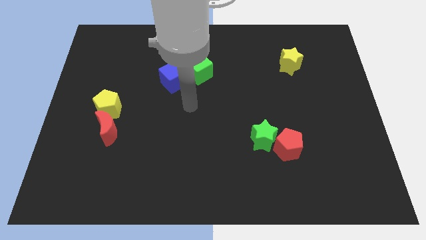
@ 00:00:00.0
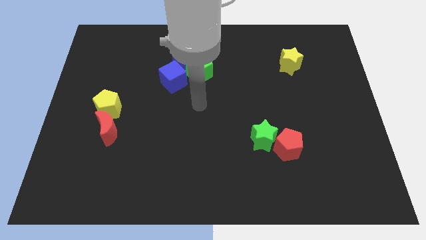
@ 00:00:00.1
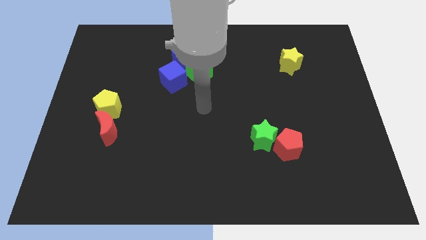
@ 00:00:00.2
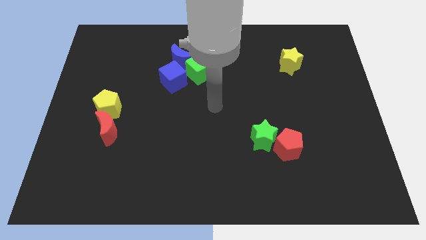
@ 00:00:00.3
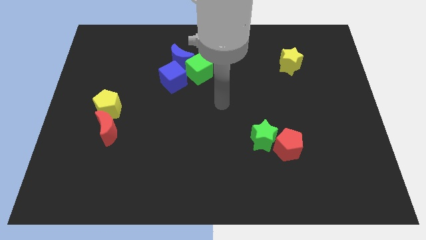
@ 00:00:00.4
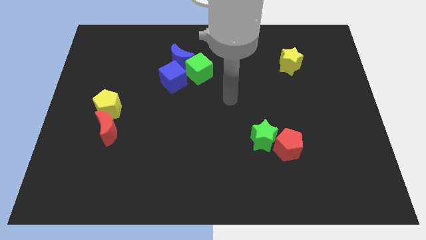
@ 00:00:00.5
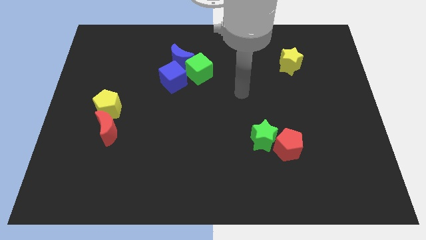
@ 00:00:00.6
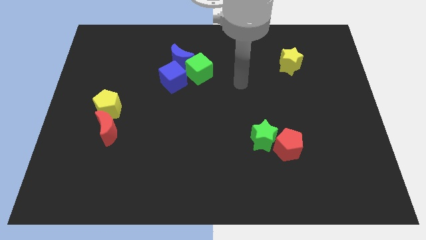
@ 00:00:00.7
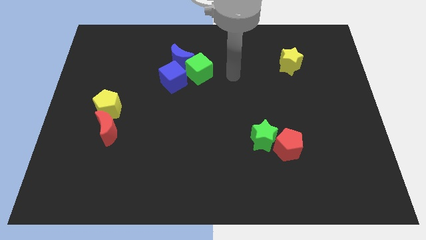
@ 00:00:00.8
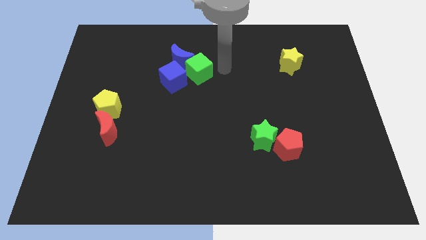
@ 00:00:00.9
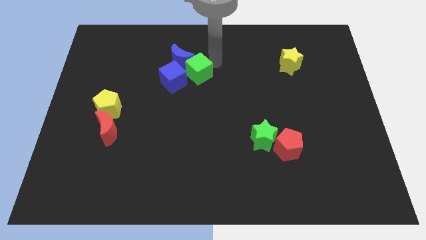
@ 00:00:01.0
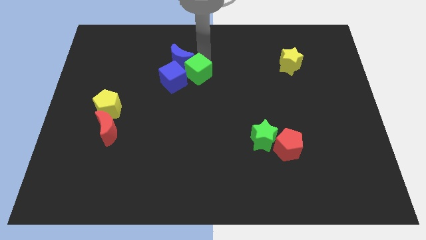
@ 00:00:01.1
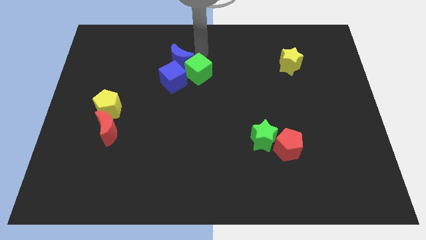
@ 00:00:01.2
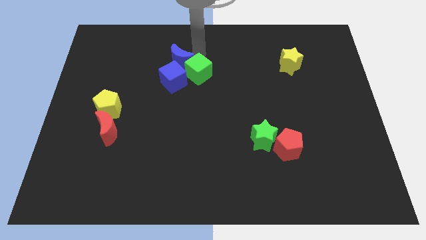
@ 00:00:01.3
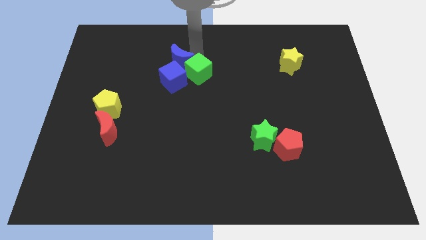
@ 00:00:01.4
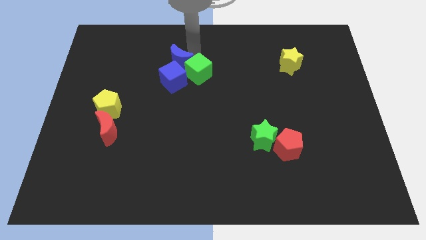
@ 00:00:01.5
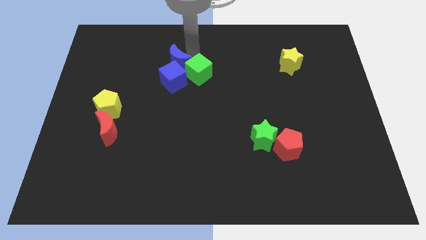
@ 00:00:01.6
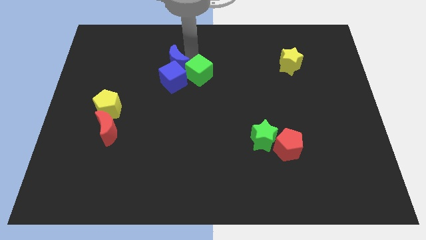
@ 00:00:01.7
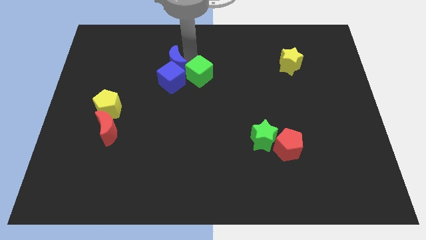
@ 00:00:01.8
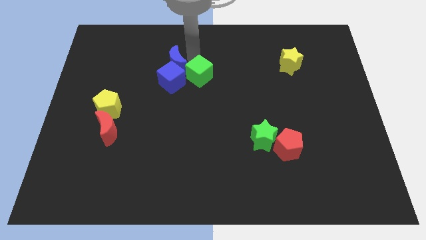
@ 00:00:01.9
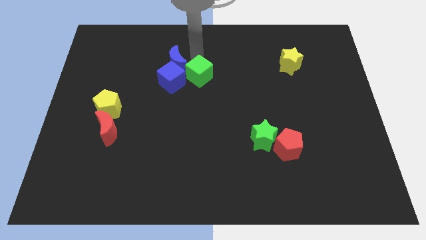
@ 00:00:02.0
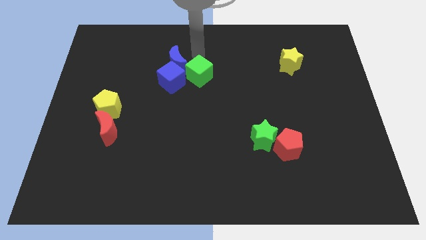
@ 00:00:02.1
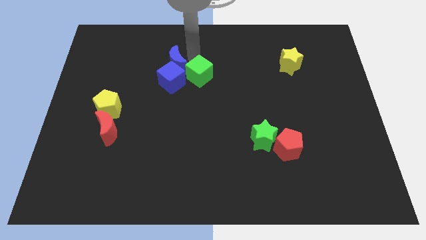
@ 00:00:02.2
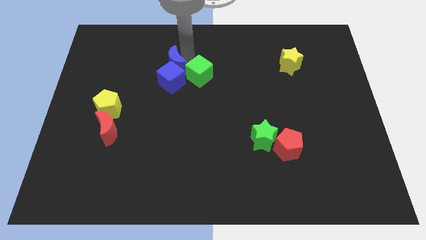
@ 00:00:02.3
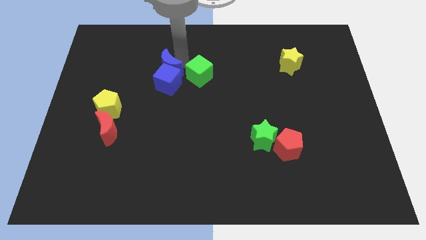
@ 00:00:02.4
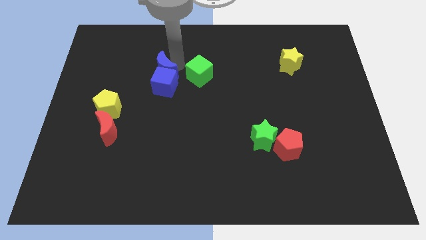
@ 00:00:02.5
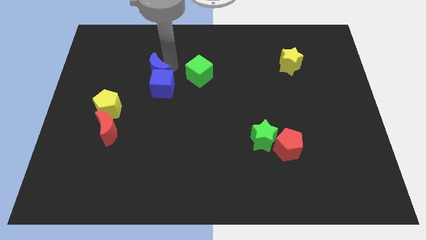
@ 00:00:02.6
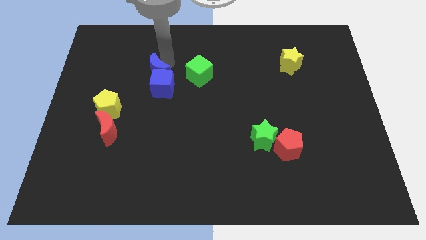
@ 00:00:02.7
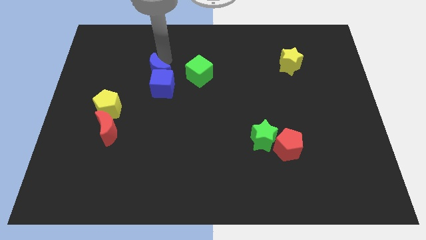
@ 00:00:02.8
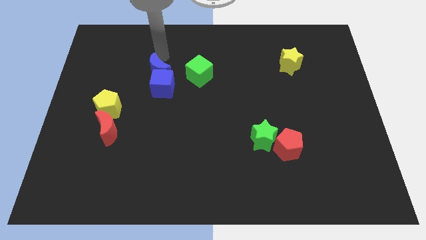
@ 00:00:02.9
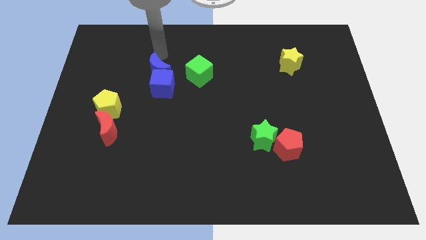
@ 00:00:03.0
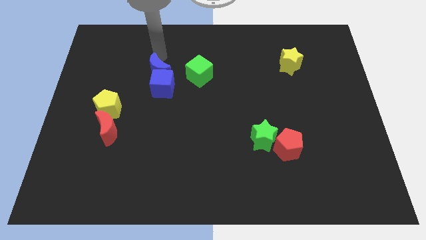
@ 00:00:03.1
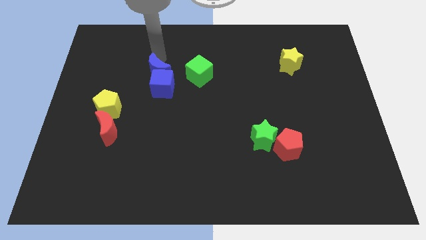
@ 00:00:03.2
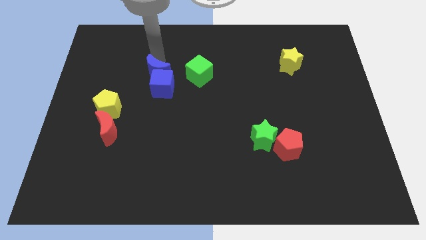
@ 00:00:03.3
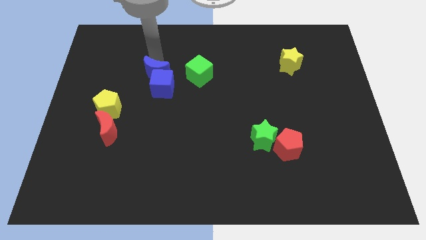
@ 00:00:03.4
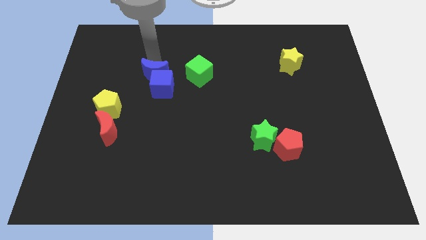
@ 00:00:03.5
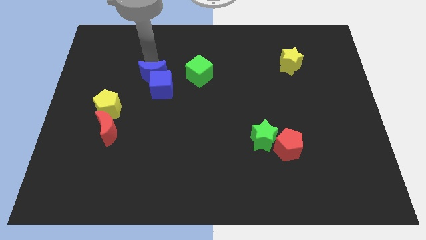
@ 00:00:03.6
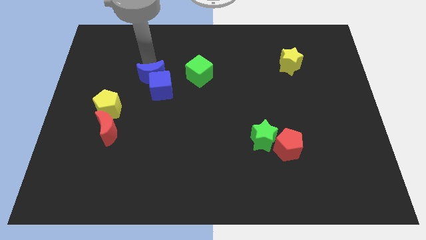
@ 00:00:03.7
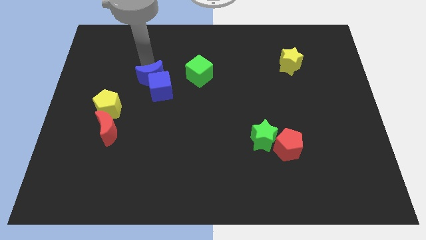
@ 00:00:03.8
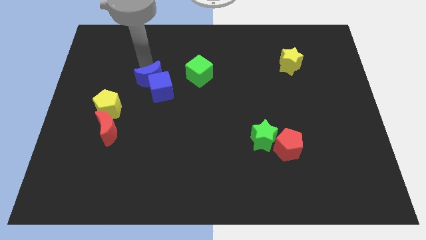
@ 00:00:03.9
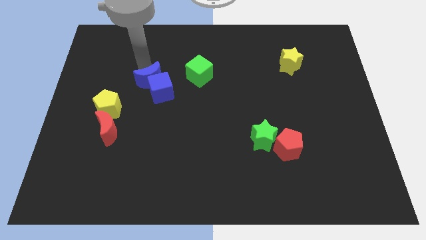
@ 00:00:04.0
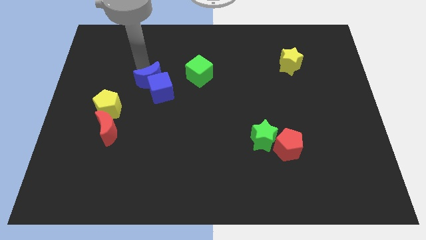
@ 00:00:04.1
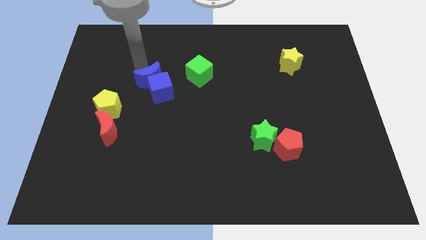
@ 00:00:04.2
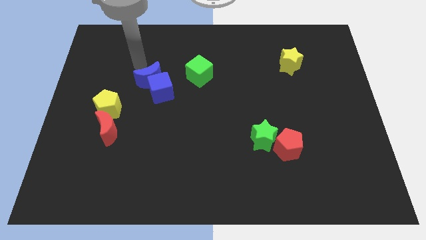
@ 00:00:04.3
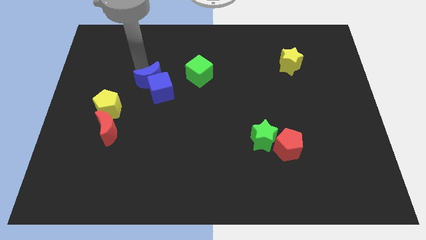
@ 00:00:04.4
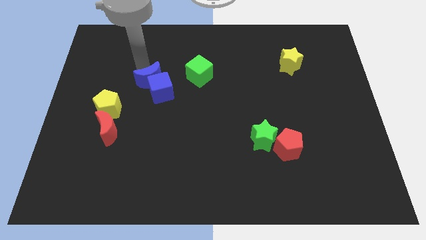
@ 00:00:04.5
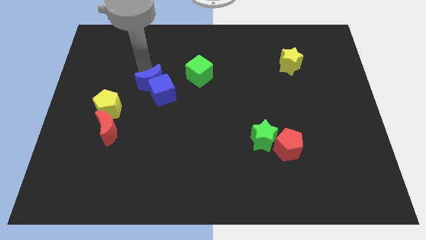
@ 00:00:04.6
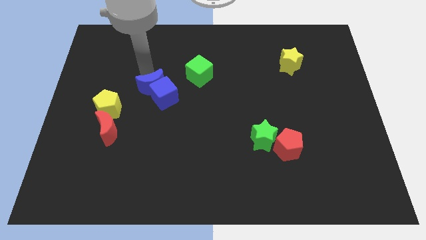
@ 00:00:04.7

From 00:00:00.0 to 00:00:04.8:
push the blue moon down a bit

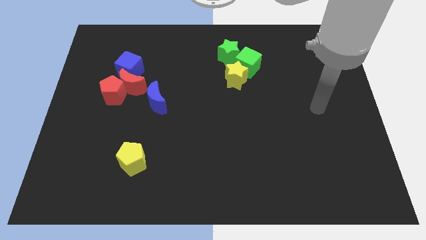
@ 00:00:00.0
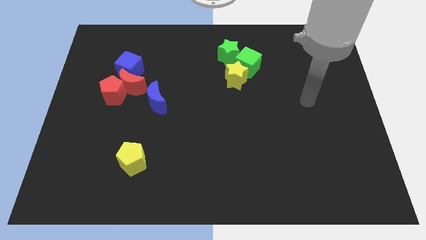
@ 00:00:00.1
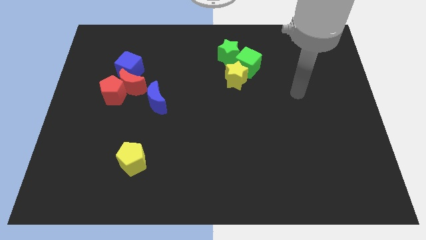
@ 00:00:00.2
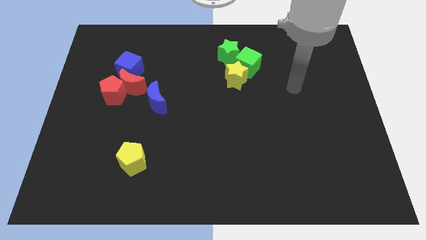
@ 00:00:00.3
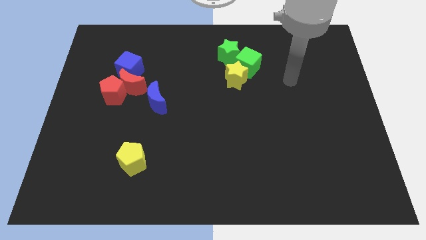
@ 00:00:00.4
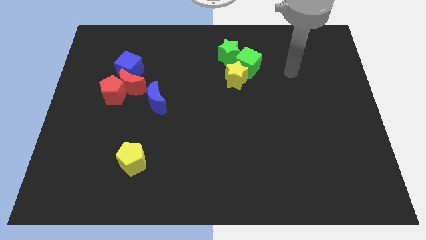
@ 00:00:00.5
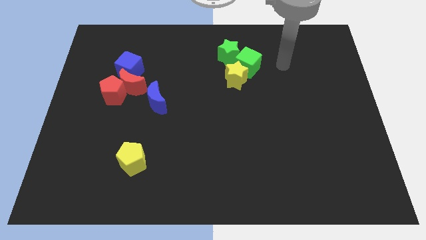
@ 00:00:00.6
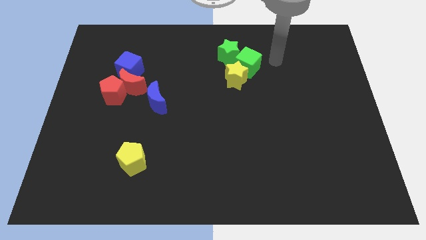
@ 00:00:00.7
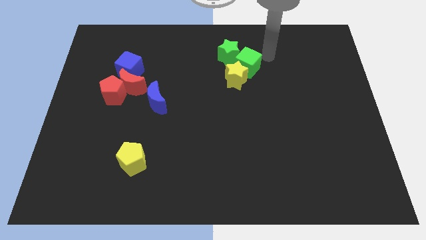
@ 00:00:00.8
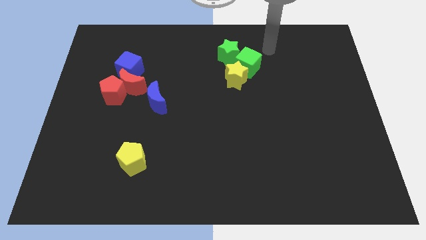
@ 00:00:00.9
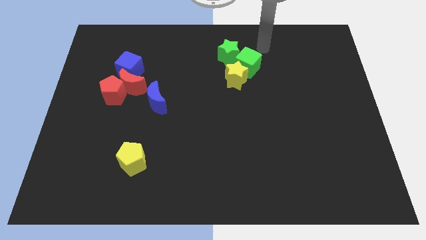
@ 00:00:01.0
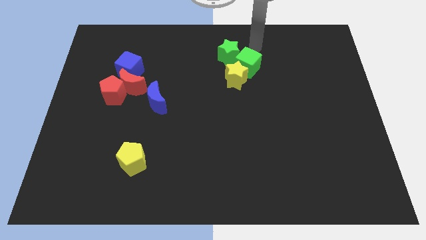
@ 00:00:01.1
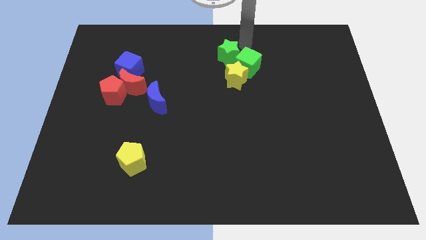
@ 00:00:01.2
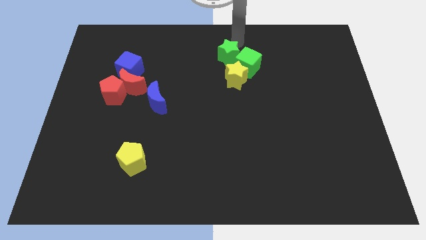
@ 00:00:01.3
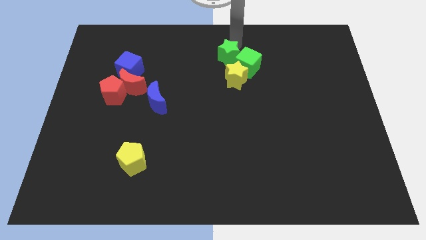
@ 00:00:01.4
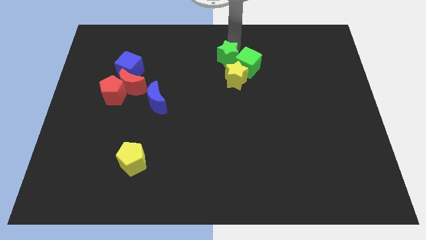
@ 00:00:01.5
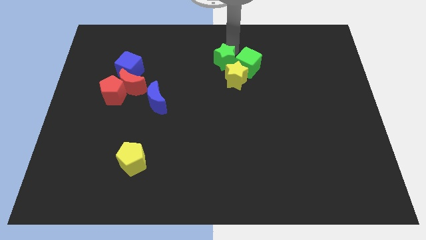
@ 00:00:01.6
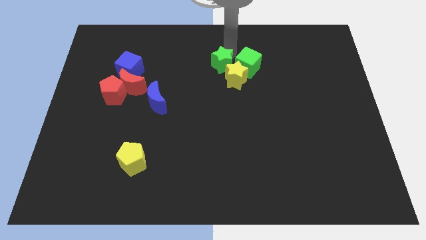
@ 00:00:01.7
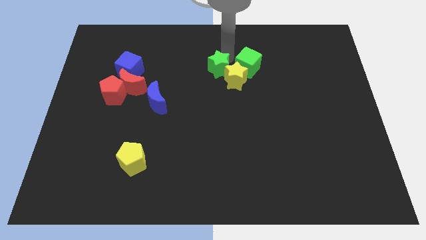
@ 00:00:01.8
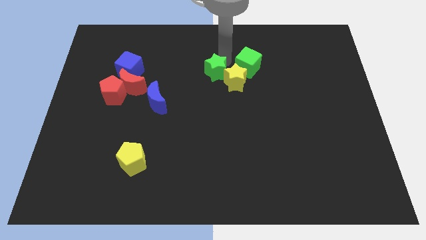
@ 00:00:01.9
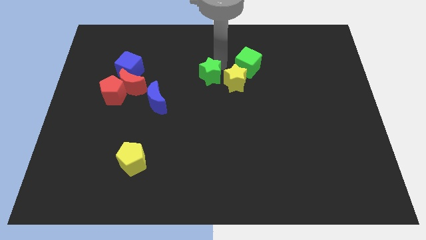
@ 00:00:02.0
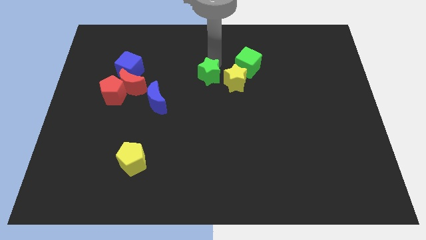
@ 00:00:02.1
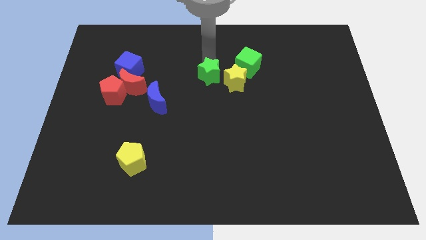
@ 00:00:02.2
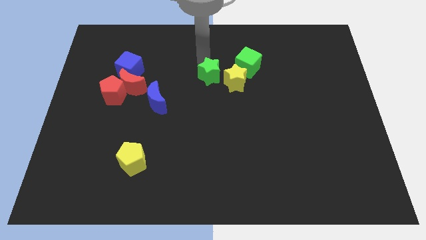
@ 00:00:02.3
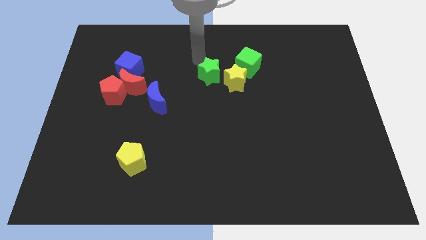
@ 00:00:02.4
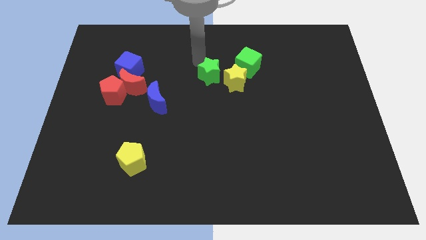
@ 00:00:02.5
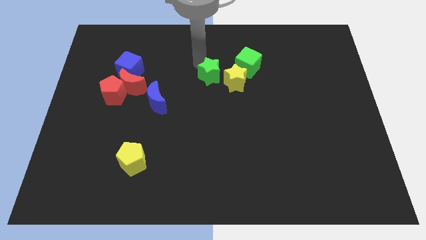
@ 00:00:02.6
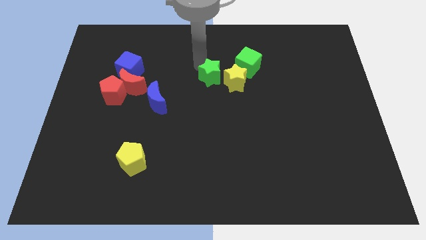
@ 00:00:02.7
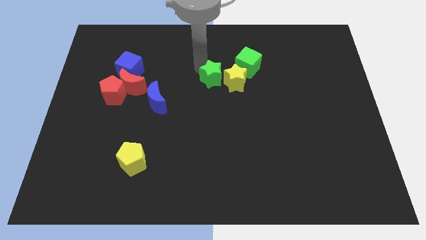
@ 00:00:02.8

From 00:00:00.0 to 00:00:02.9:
slightly move the green star downwards
